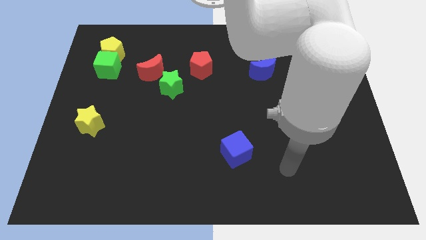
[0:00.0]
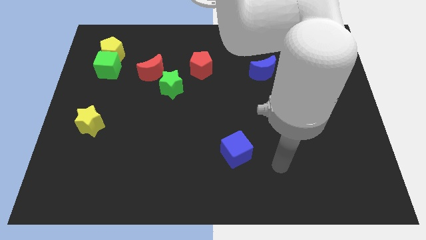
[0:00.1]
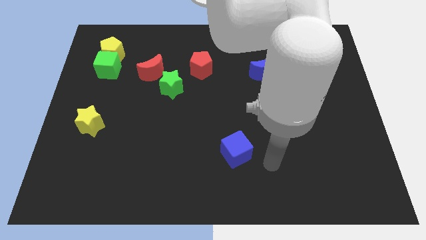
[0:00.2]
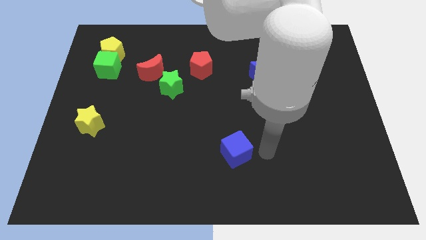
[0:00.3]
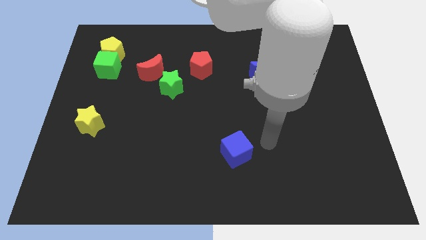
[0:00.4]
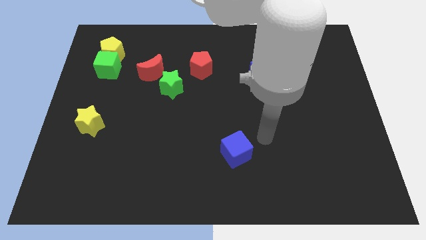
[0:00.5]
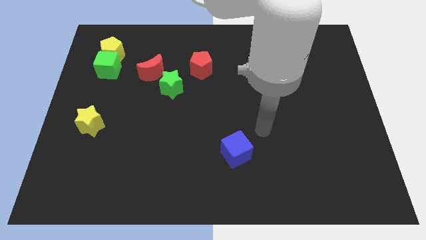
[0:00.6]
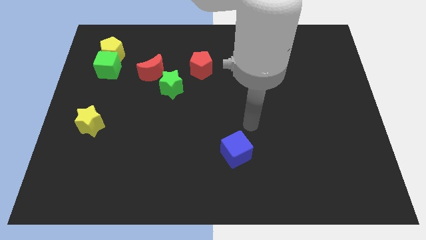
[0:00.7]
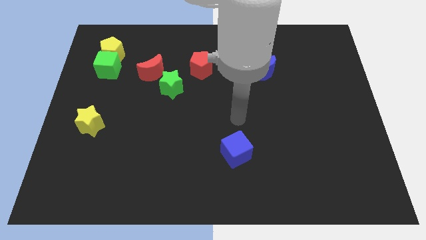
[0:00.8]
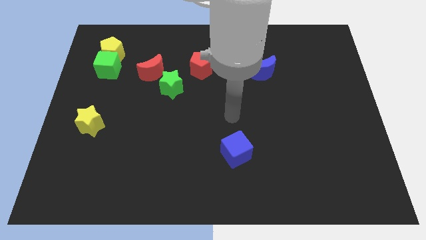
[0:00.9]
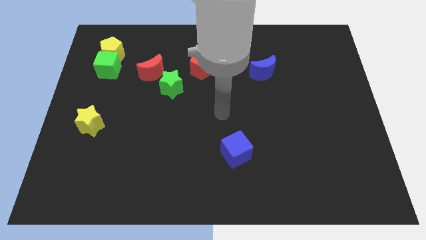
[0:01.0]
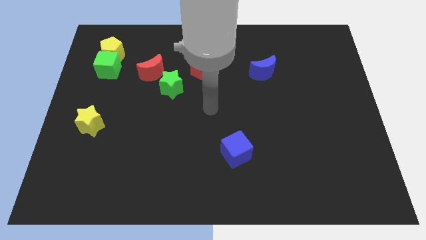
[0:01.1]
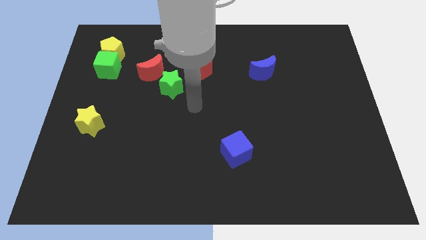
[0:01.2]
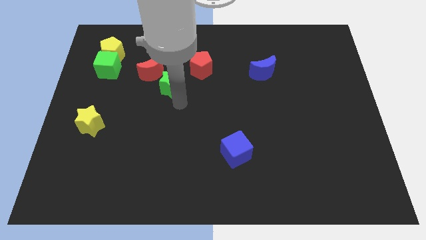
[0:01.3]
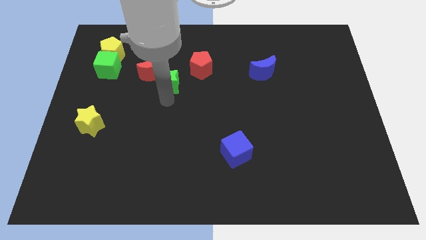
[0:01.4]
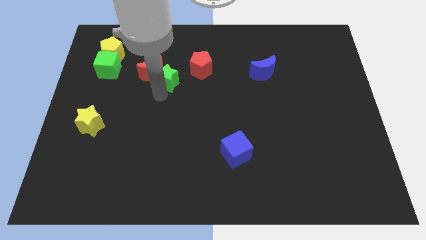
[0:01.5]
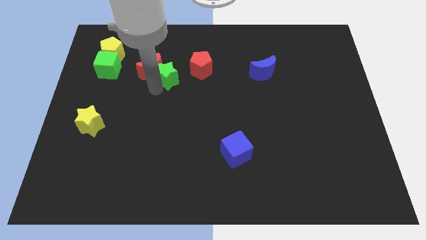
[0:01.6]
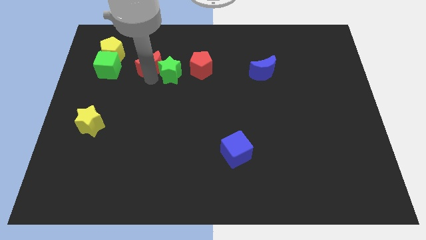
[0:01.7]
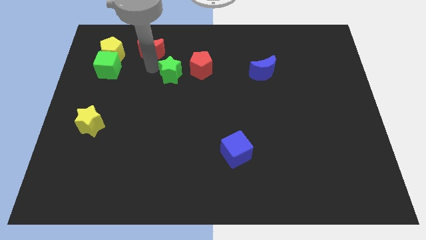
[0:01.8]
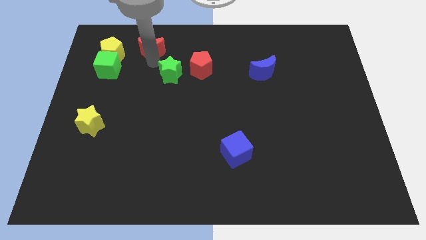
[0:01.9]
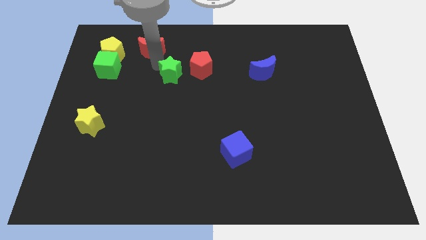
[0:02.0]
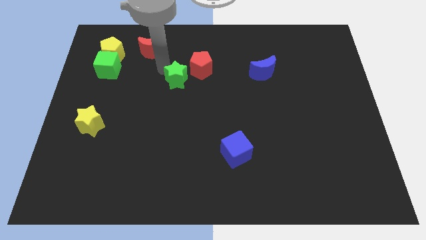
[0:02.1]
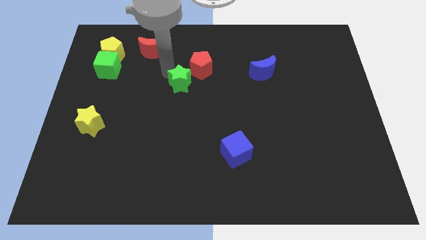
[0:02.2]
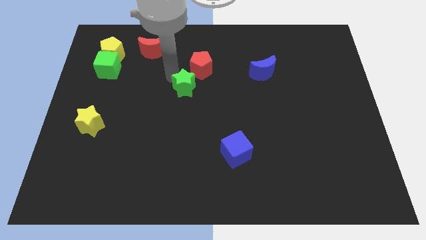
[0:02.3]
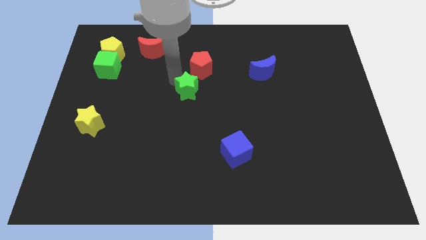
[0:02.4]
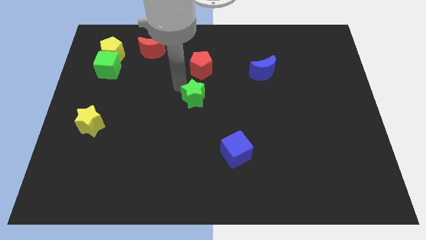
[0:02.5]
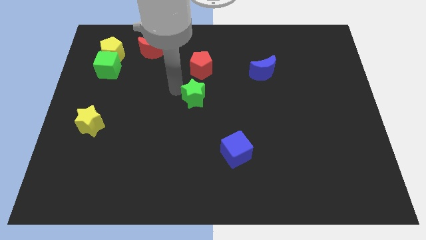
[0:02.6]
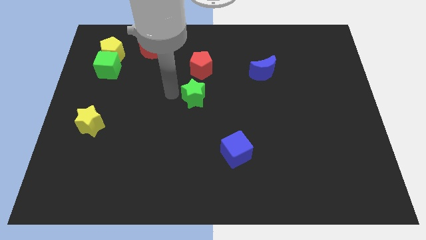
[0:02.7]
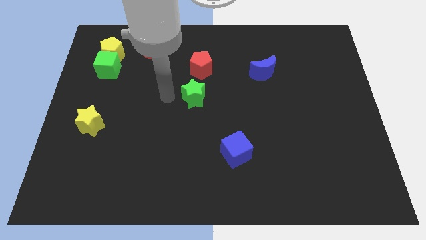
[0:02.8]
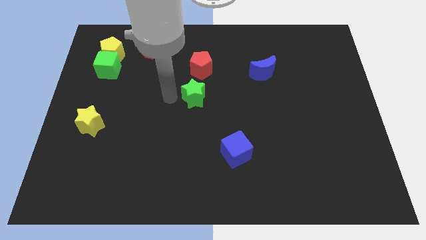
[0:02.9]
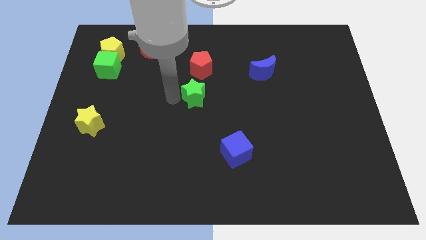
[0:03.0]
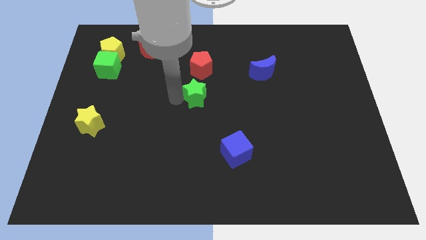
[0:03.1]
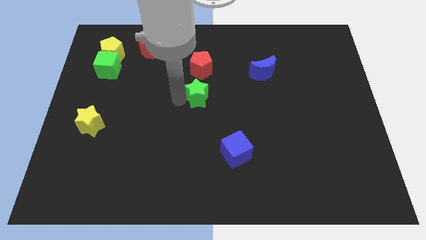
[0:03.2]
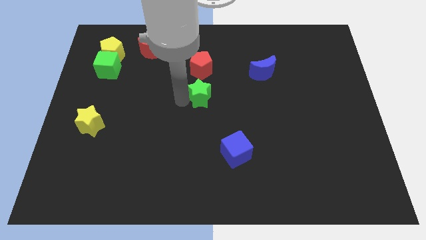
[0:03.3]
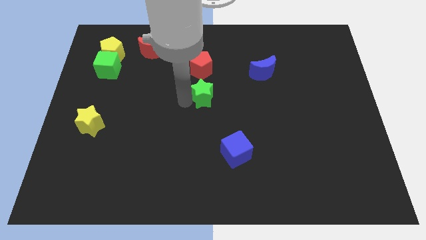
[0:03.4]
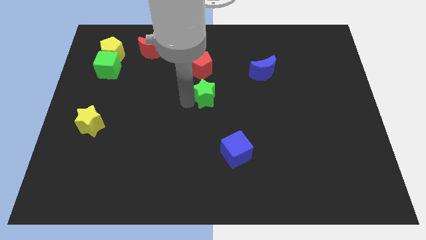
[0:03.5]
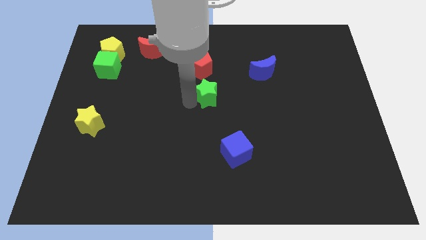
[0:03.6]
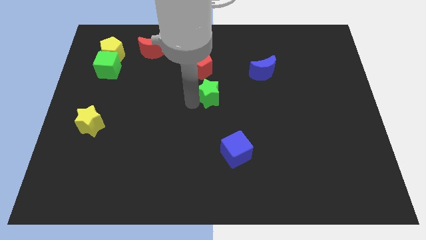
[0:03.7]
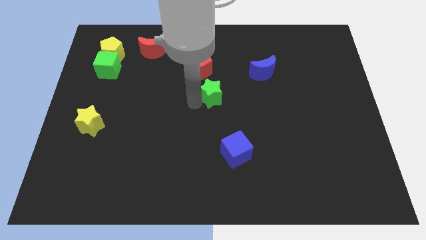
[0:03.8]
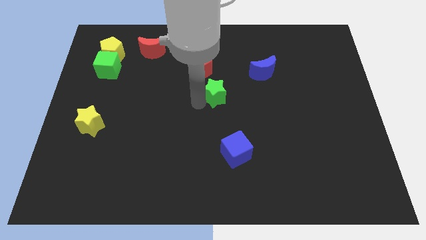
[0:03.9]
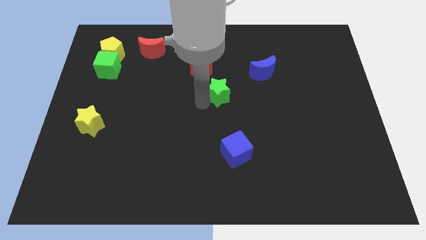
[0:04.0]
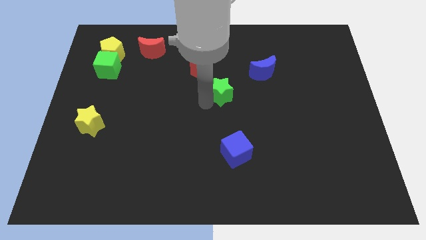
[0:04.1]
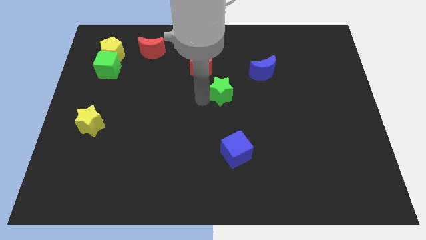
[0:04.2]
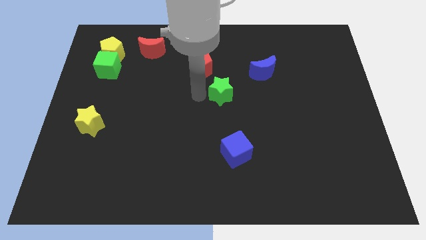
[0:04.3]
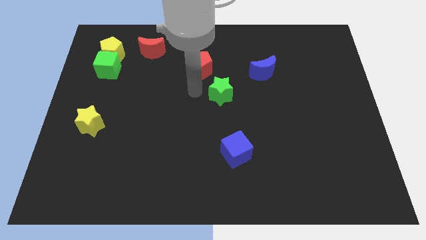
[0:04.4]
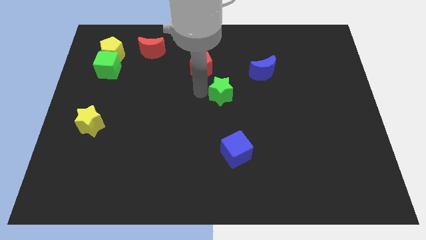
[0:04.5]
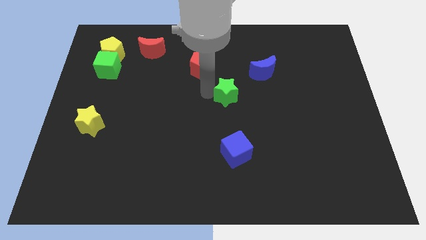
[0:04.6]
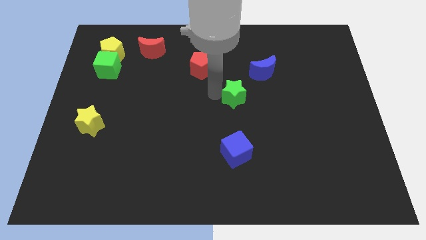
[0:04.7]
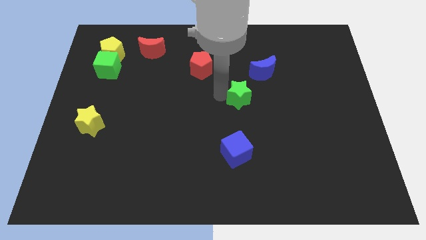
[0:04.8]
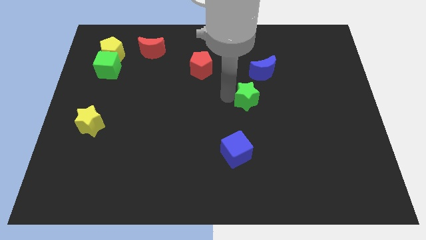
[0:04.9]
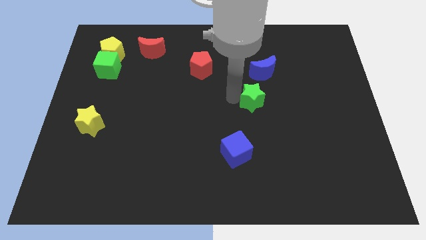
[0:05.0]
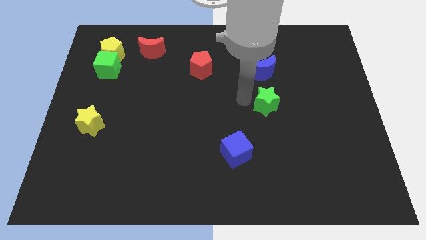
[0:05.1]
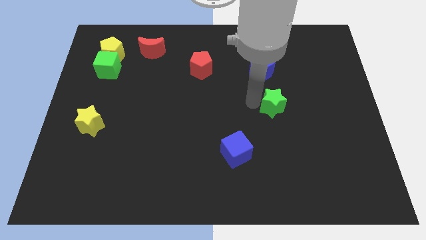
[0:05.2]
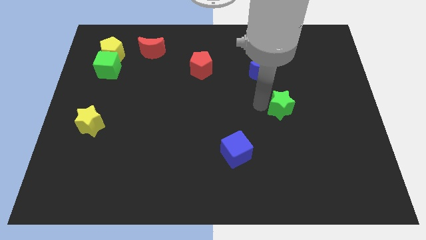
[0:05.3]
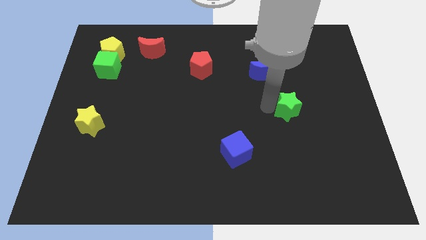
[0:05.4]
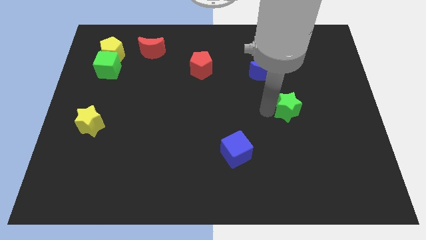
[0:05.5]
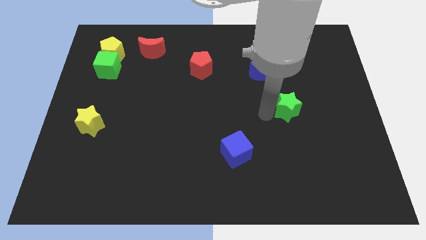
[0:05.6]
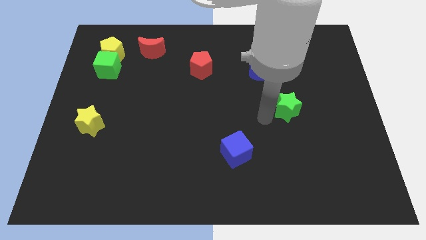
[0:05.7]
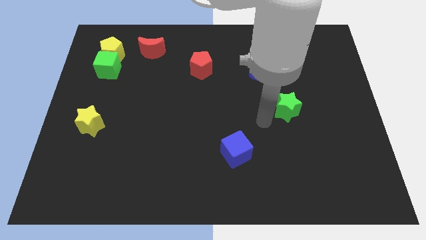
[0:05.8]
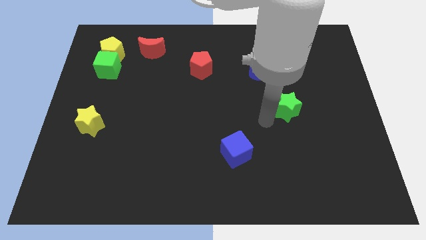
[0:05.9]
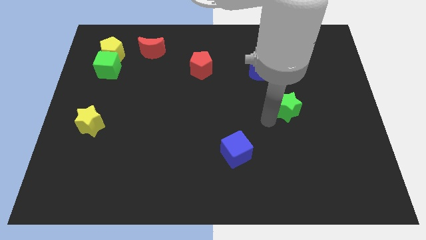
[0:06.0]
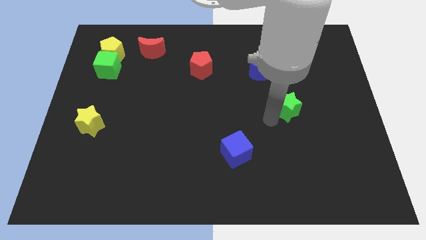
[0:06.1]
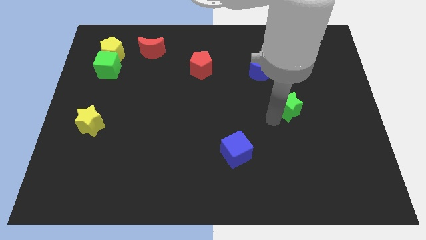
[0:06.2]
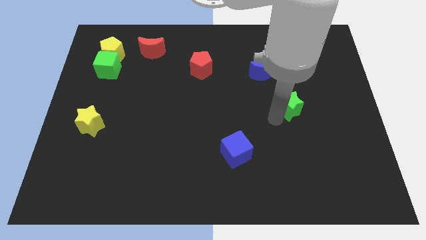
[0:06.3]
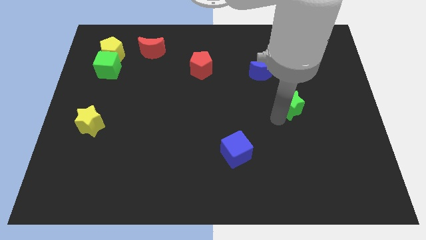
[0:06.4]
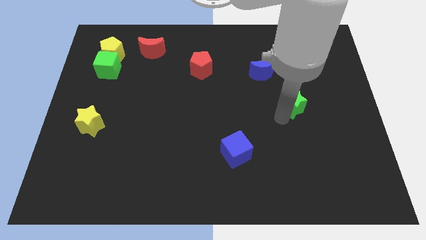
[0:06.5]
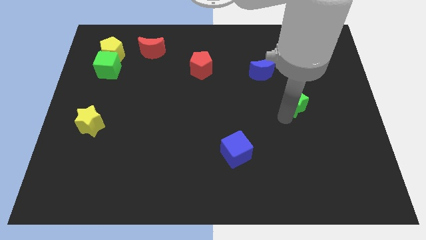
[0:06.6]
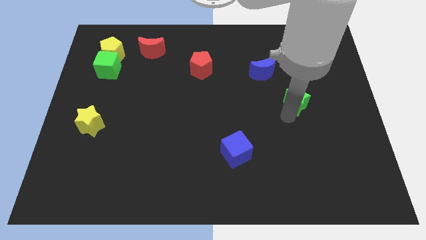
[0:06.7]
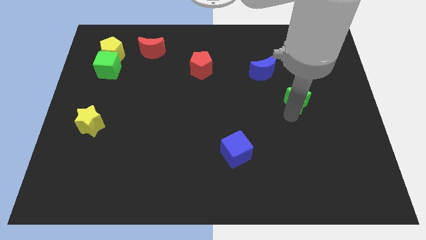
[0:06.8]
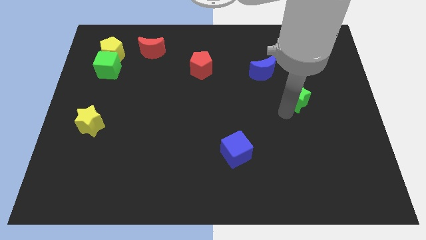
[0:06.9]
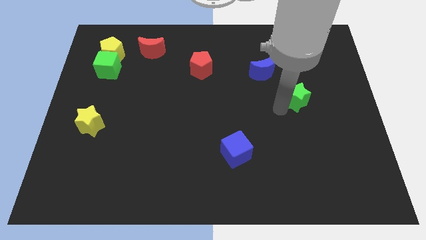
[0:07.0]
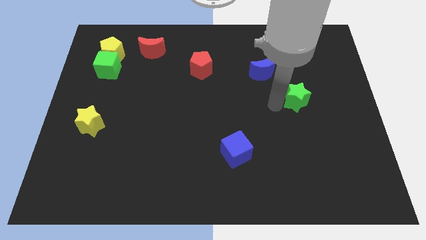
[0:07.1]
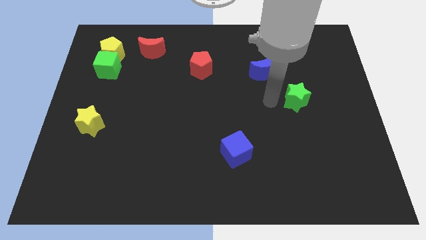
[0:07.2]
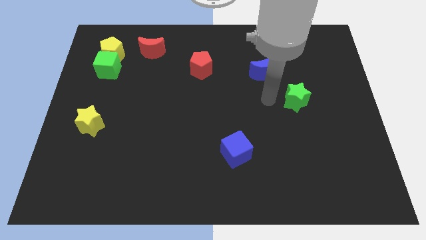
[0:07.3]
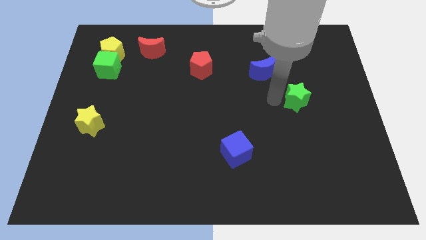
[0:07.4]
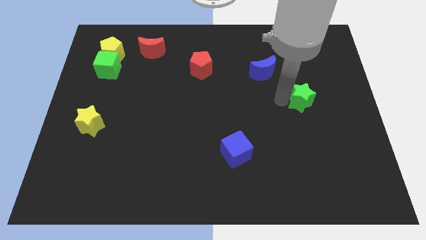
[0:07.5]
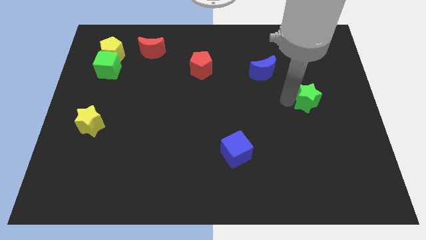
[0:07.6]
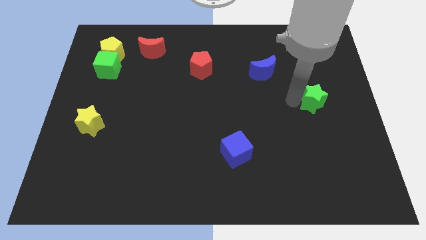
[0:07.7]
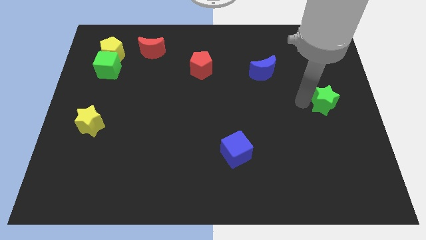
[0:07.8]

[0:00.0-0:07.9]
move the green star to the right side of the board
